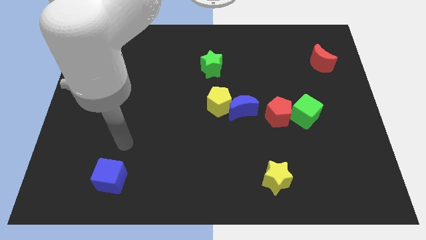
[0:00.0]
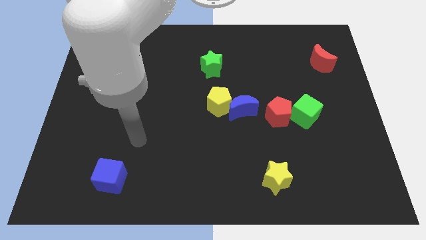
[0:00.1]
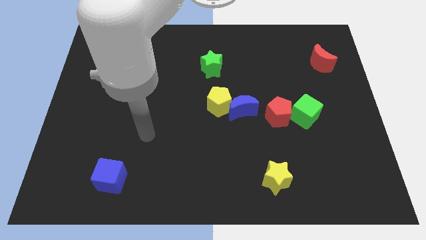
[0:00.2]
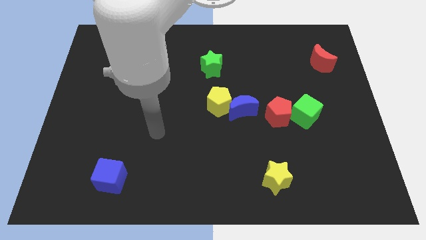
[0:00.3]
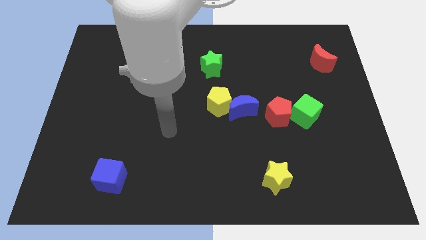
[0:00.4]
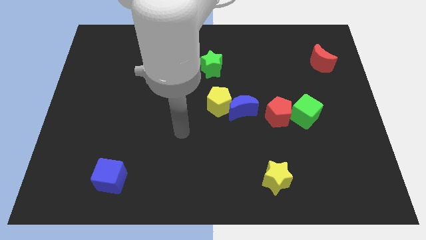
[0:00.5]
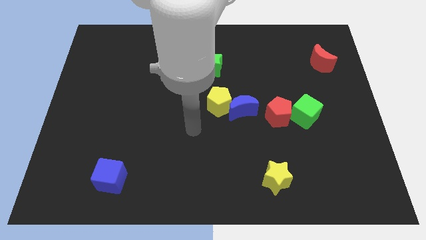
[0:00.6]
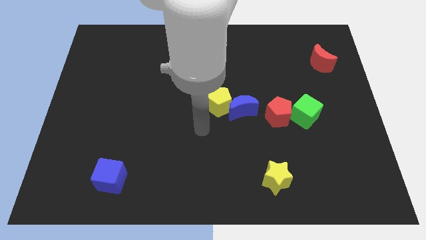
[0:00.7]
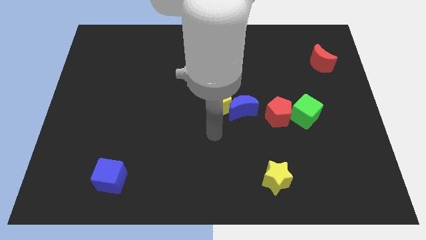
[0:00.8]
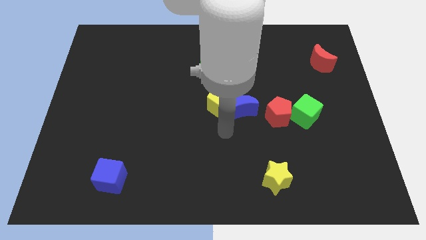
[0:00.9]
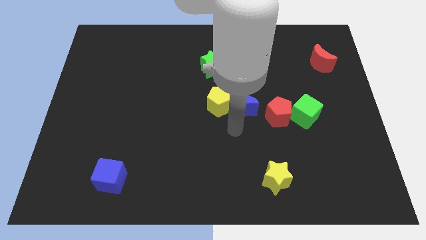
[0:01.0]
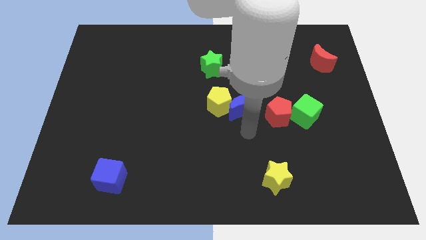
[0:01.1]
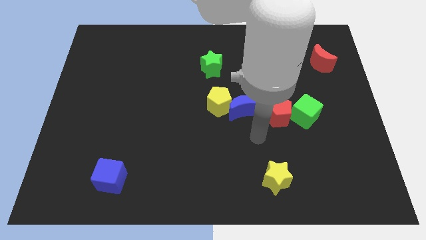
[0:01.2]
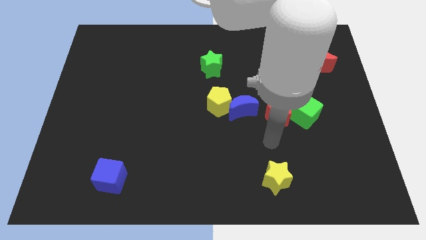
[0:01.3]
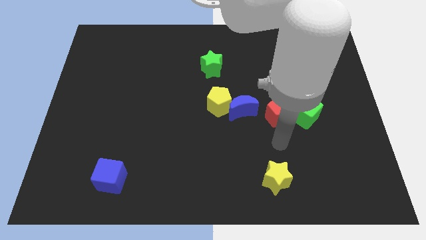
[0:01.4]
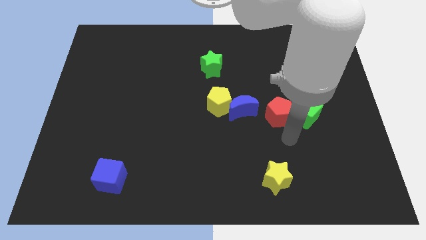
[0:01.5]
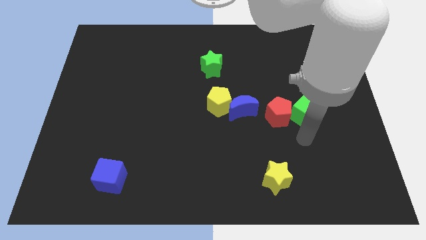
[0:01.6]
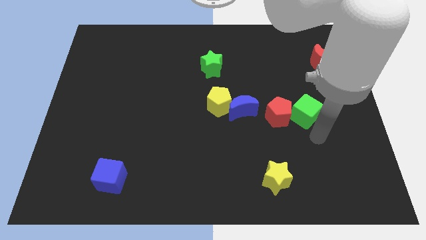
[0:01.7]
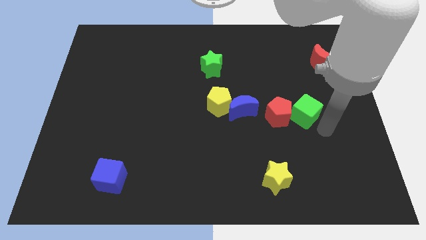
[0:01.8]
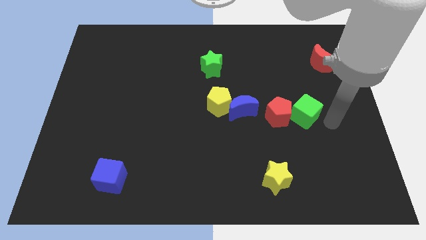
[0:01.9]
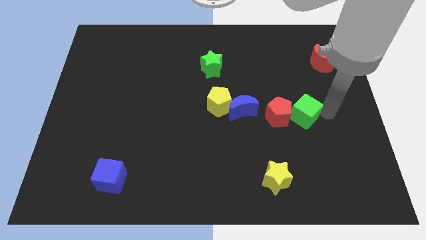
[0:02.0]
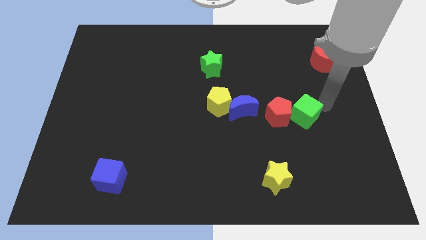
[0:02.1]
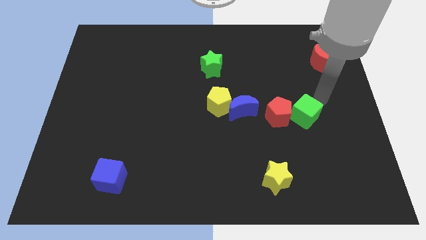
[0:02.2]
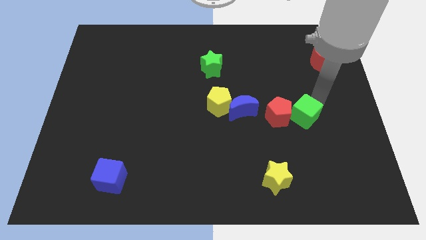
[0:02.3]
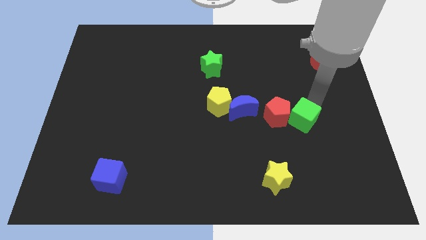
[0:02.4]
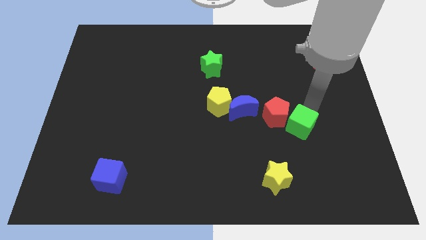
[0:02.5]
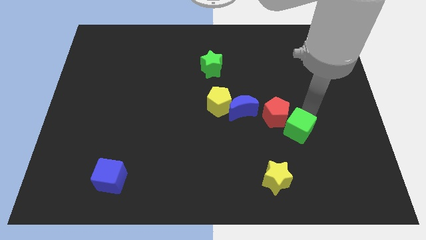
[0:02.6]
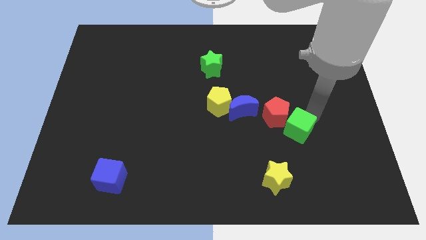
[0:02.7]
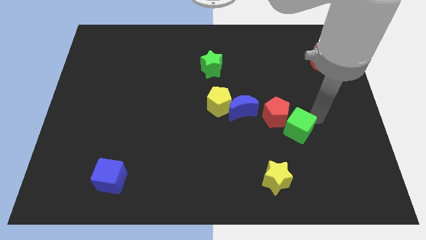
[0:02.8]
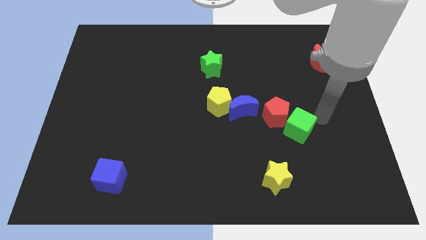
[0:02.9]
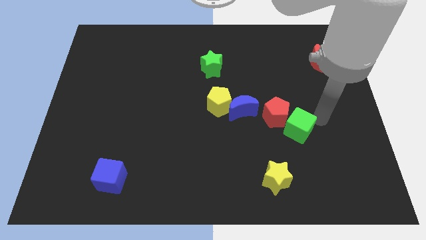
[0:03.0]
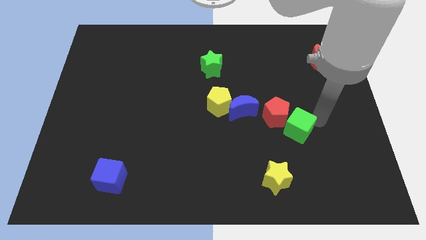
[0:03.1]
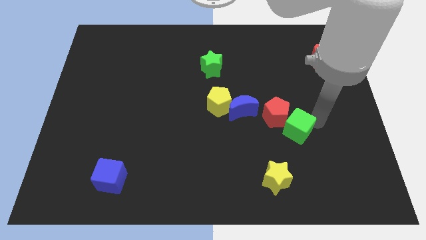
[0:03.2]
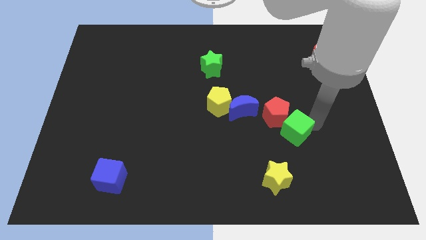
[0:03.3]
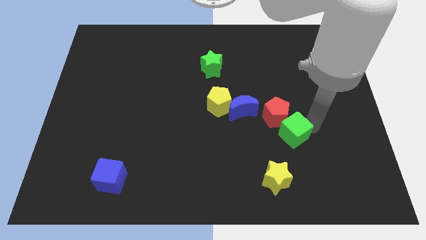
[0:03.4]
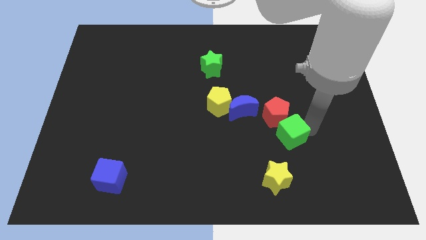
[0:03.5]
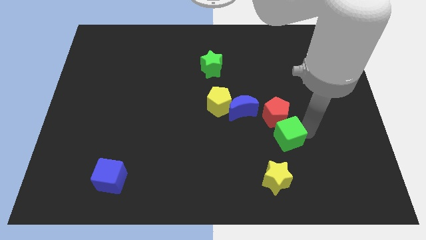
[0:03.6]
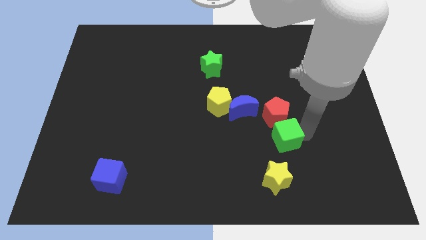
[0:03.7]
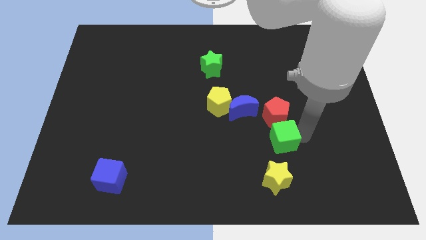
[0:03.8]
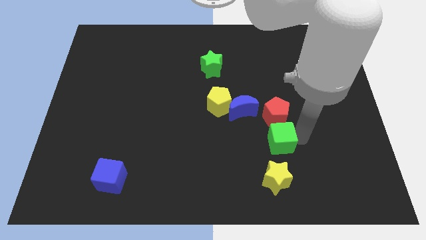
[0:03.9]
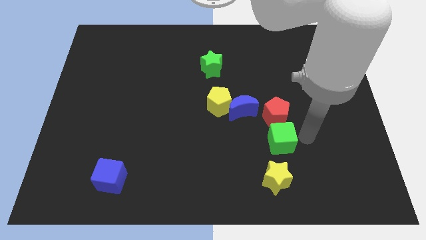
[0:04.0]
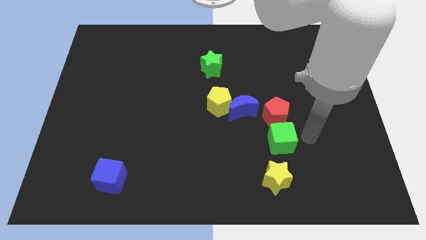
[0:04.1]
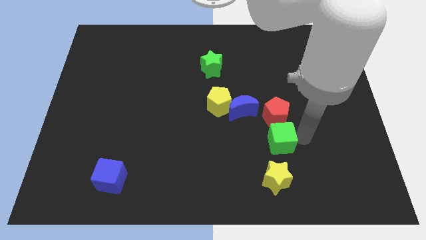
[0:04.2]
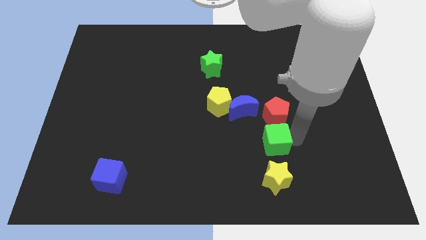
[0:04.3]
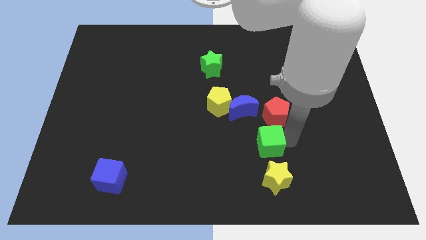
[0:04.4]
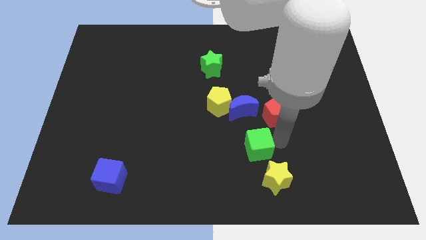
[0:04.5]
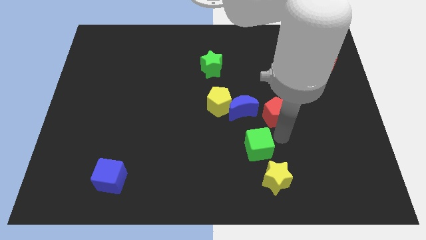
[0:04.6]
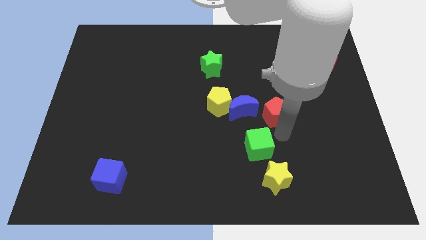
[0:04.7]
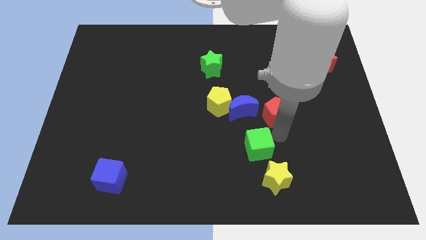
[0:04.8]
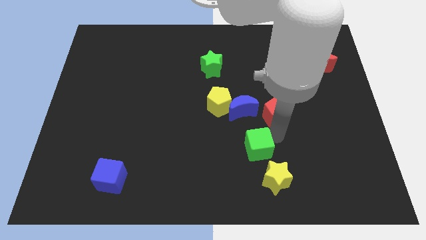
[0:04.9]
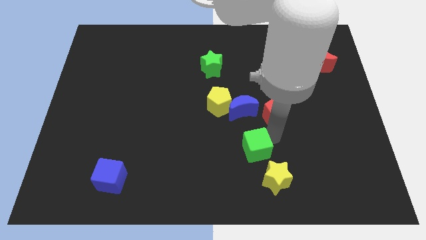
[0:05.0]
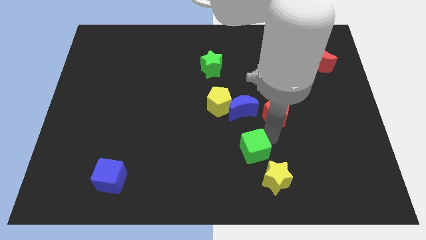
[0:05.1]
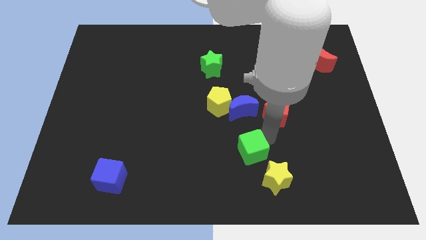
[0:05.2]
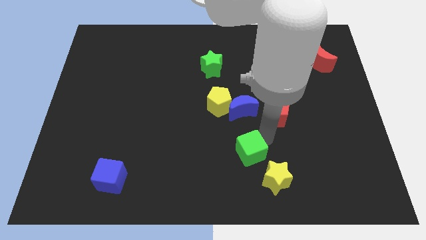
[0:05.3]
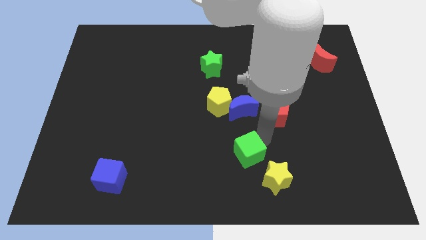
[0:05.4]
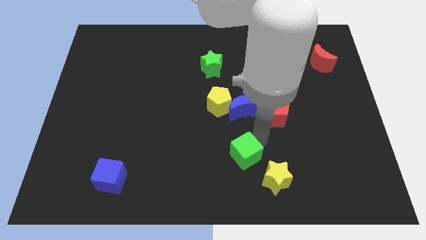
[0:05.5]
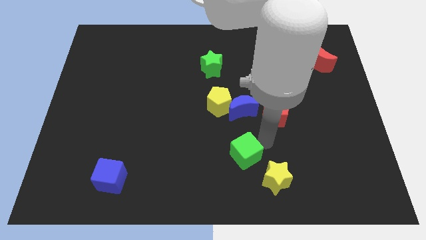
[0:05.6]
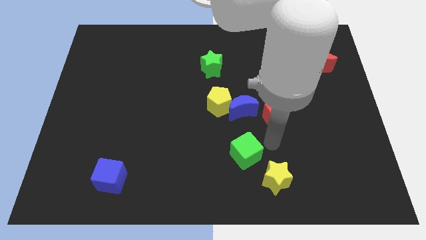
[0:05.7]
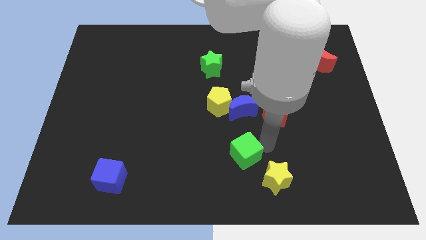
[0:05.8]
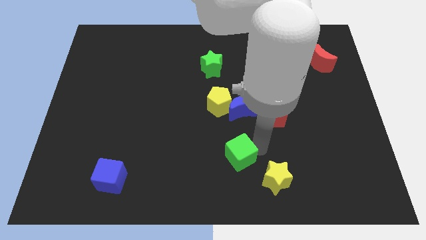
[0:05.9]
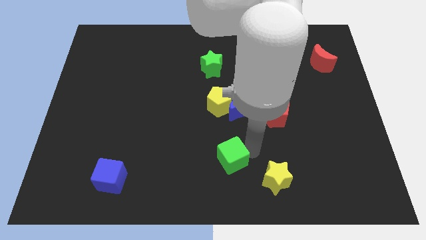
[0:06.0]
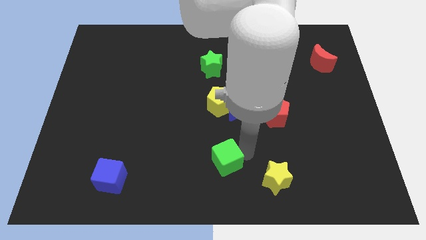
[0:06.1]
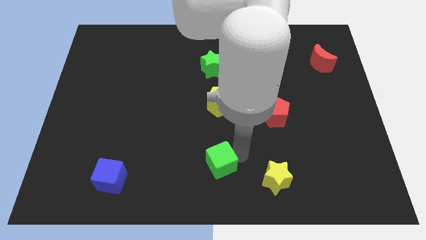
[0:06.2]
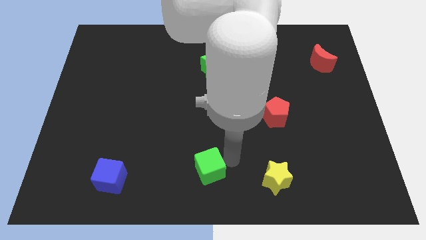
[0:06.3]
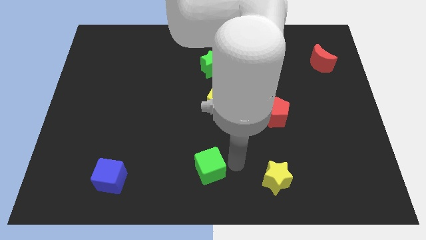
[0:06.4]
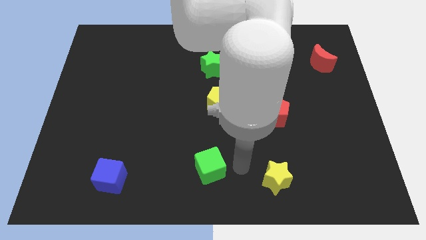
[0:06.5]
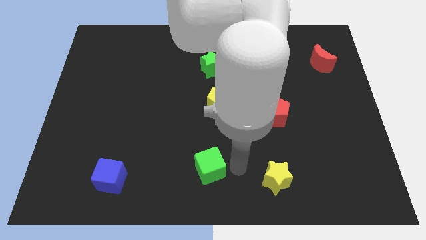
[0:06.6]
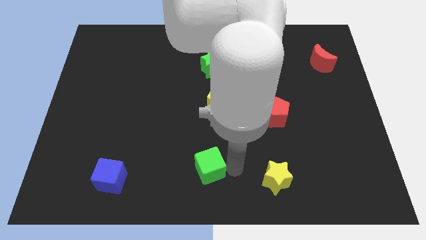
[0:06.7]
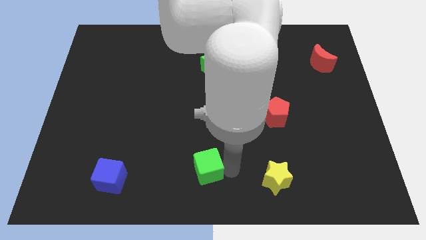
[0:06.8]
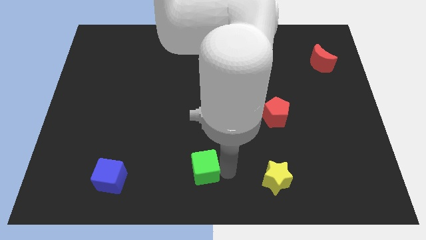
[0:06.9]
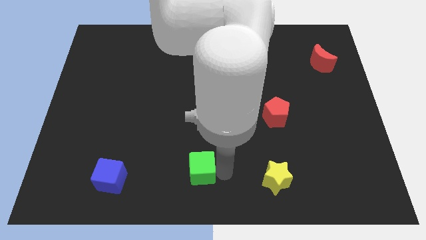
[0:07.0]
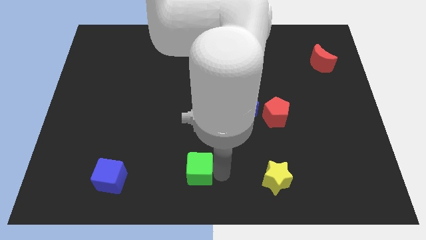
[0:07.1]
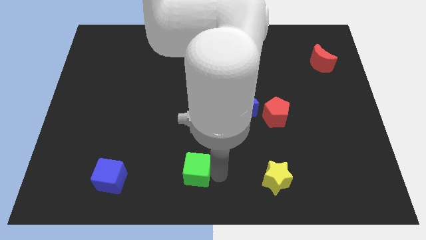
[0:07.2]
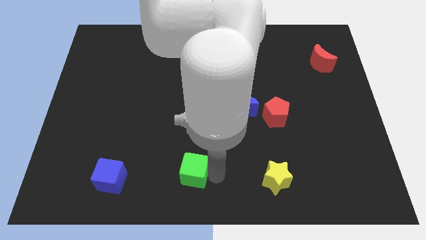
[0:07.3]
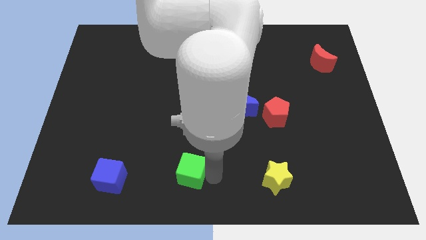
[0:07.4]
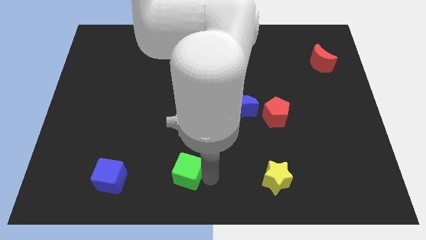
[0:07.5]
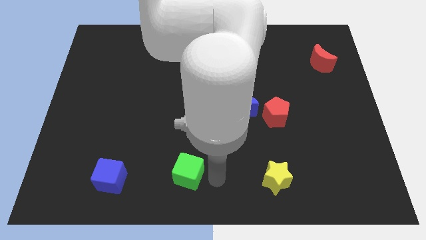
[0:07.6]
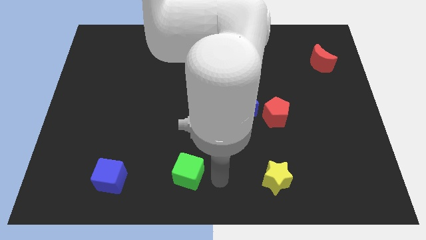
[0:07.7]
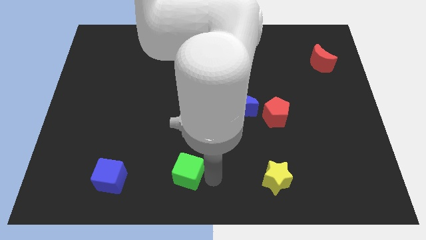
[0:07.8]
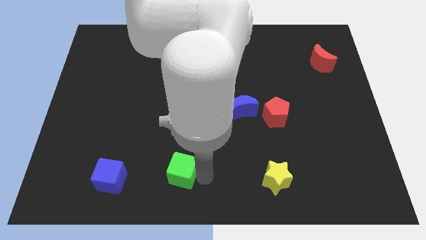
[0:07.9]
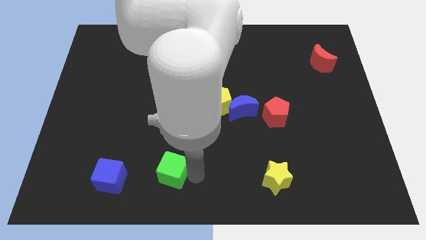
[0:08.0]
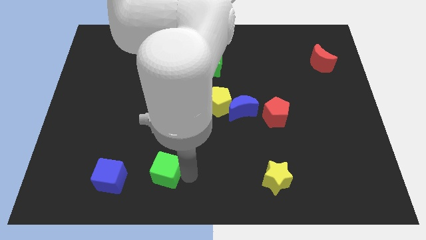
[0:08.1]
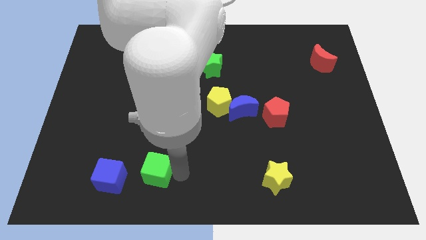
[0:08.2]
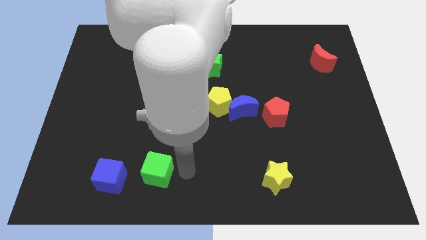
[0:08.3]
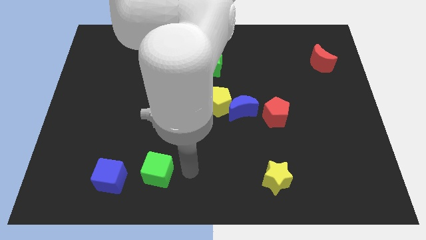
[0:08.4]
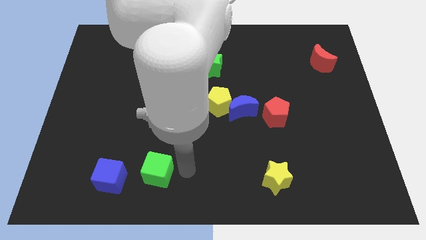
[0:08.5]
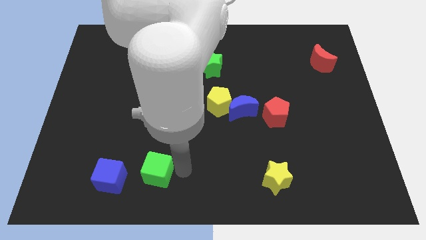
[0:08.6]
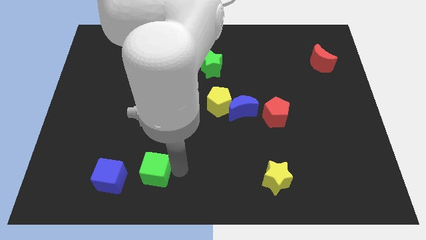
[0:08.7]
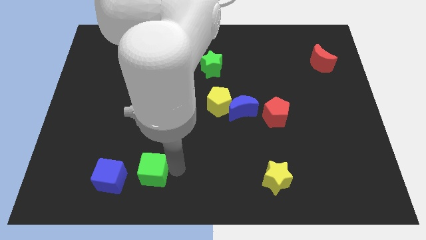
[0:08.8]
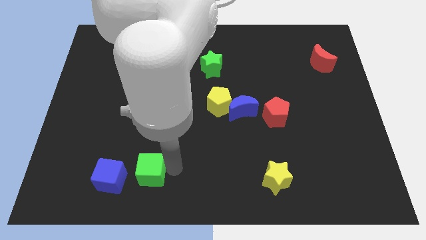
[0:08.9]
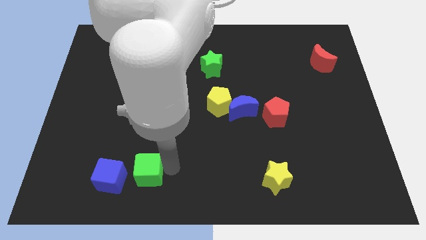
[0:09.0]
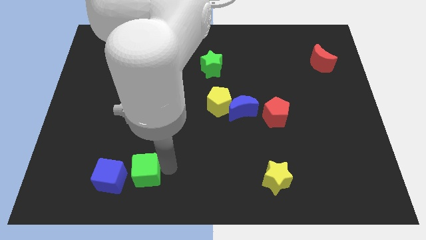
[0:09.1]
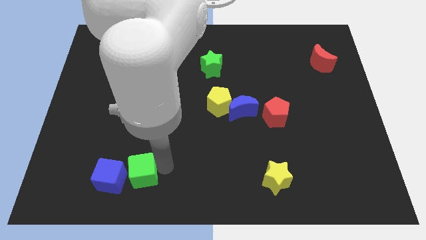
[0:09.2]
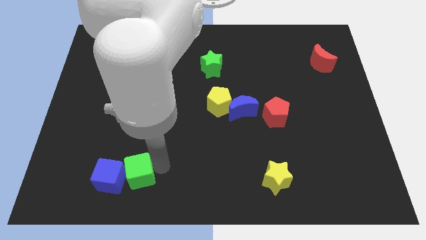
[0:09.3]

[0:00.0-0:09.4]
push the green cube next to the blue cube
